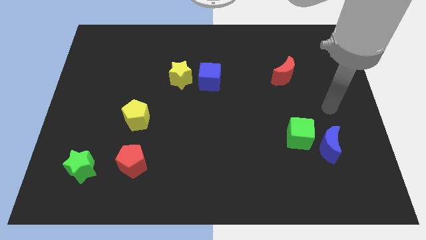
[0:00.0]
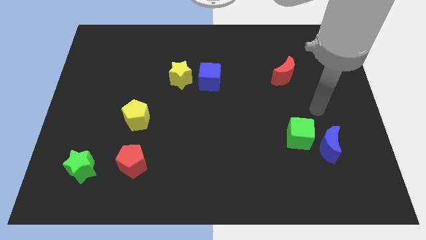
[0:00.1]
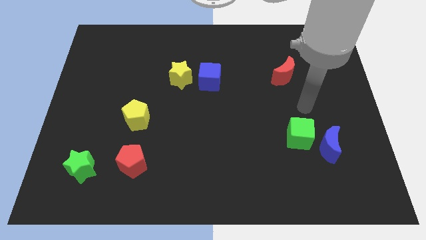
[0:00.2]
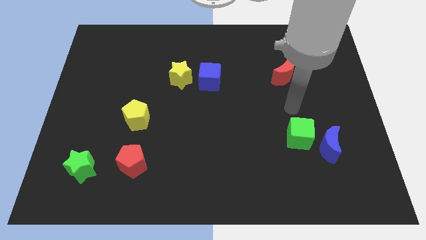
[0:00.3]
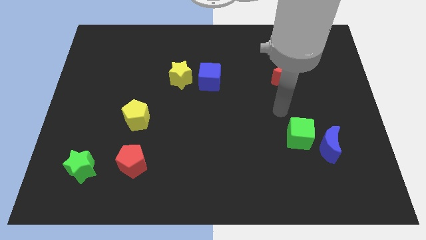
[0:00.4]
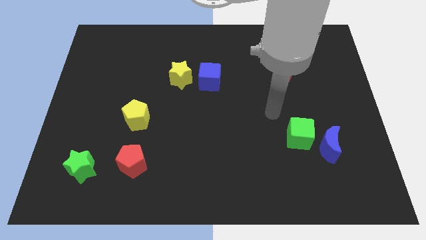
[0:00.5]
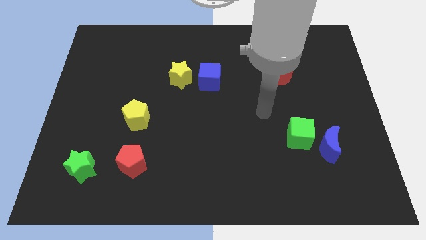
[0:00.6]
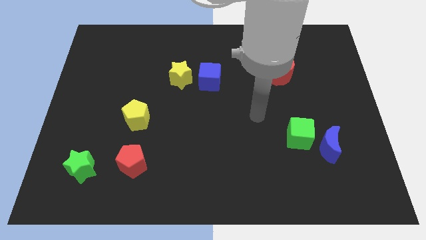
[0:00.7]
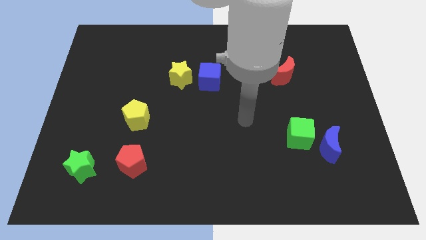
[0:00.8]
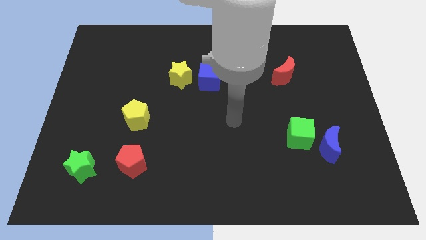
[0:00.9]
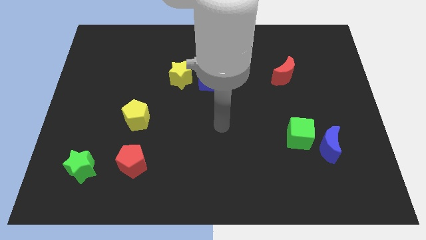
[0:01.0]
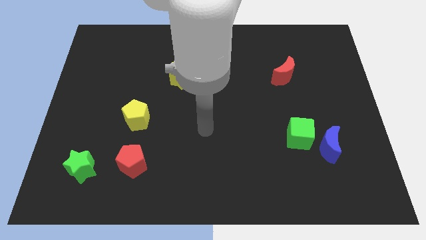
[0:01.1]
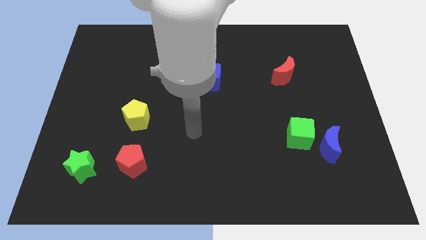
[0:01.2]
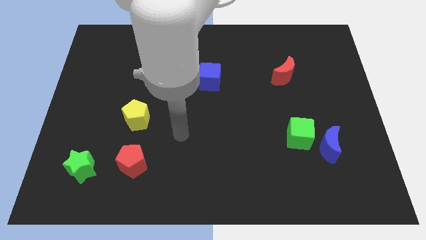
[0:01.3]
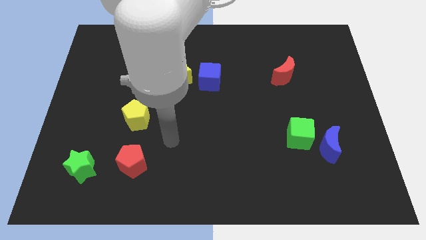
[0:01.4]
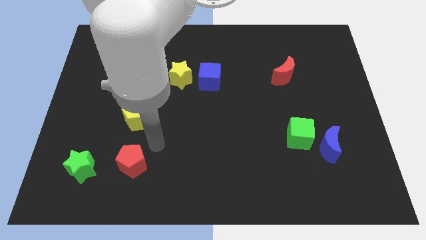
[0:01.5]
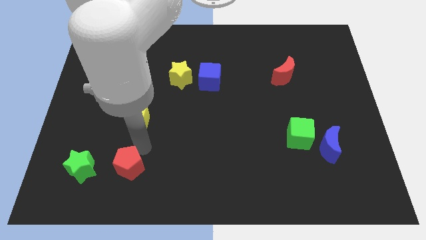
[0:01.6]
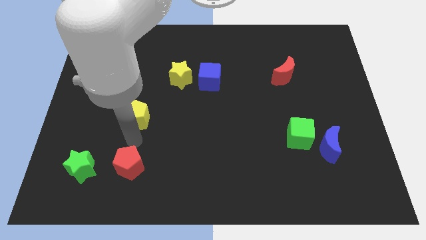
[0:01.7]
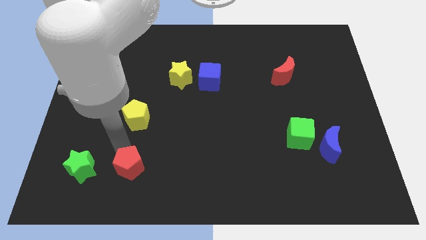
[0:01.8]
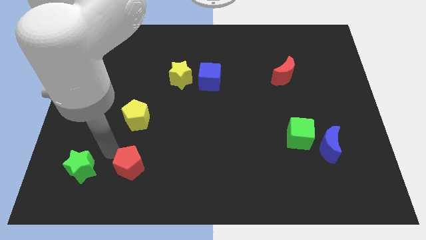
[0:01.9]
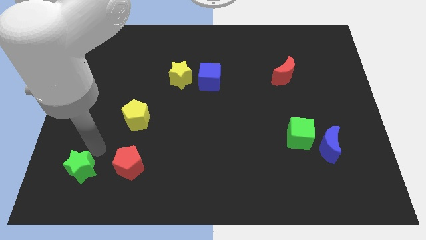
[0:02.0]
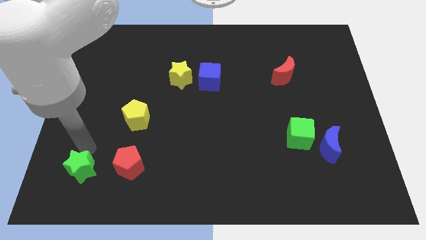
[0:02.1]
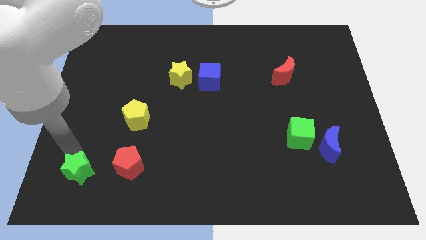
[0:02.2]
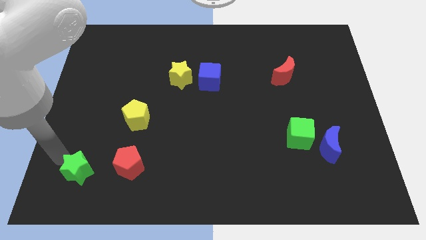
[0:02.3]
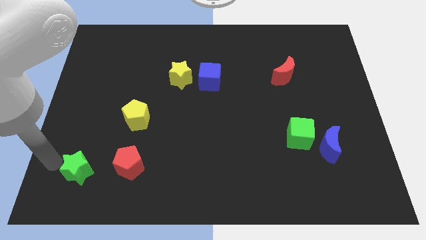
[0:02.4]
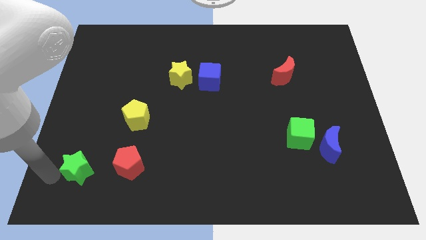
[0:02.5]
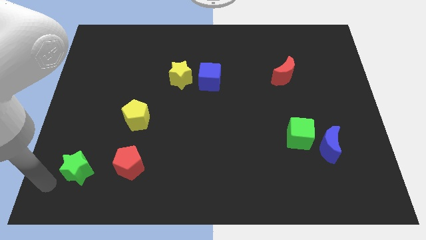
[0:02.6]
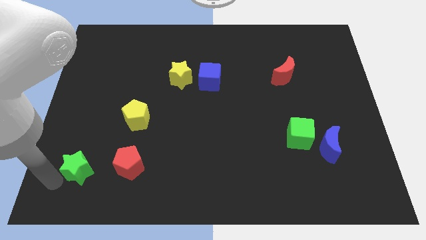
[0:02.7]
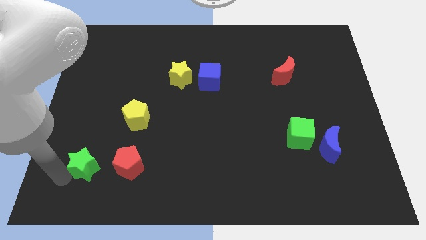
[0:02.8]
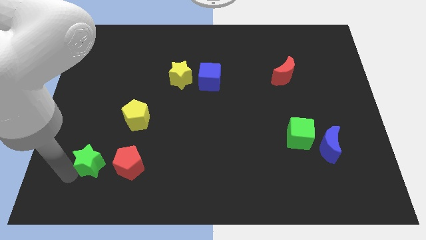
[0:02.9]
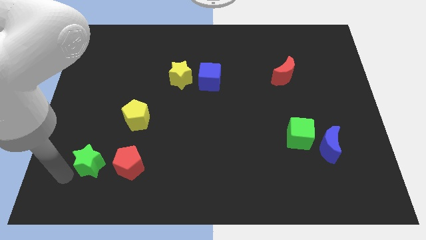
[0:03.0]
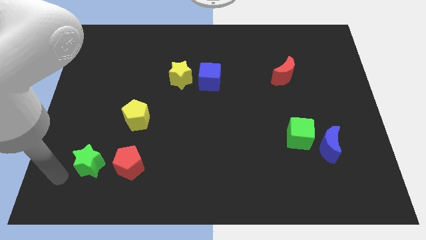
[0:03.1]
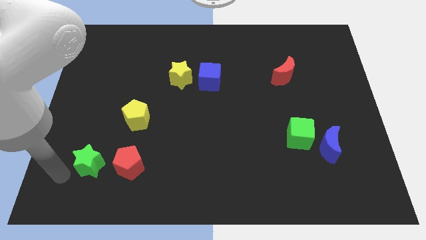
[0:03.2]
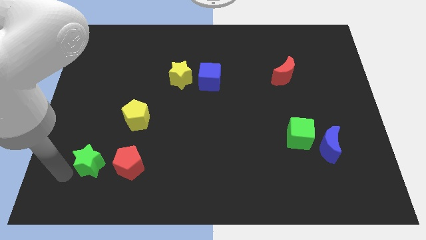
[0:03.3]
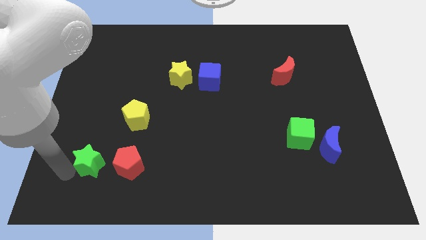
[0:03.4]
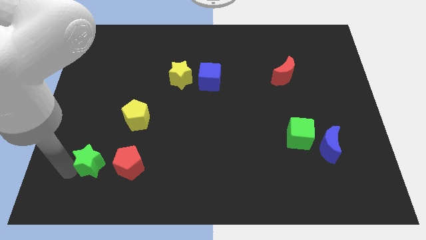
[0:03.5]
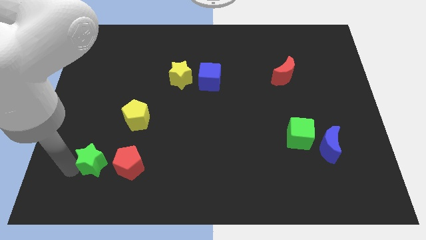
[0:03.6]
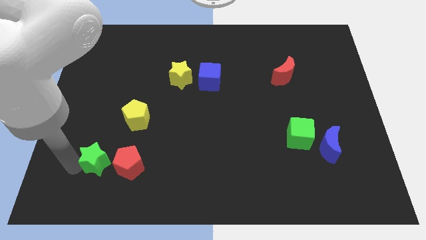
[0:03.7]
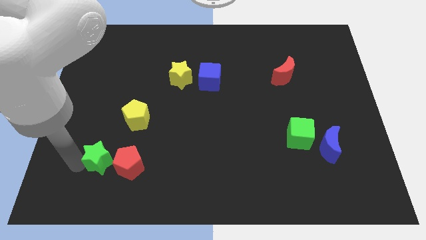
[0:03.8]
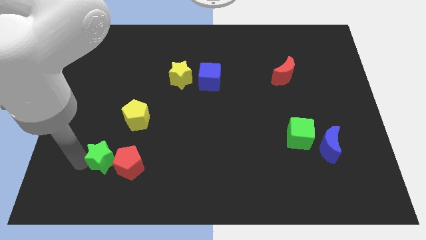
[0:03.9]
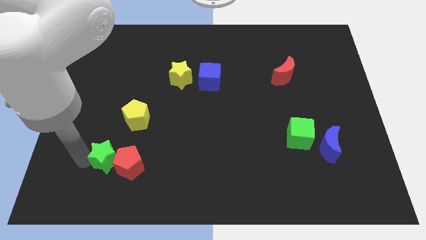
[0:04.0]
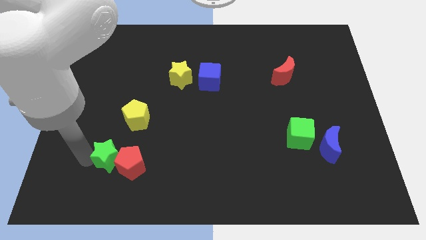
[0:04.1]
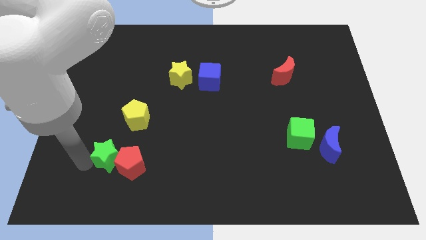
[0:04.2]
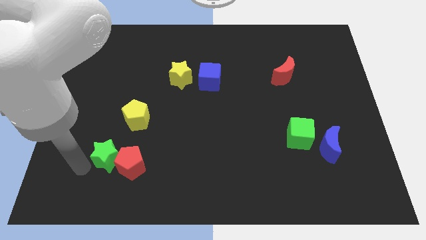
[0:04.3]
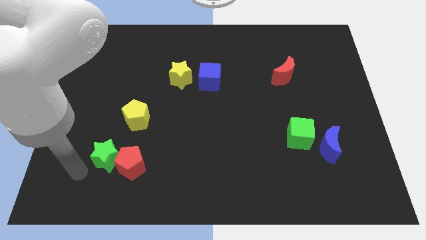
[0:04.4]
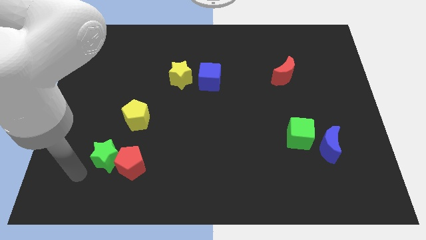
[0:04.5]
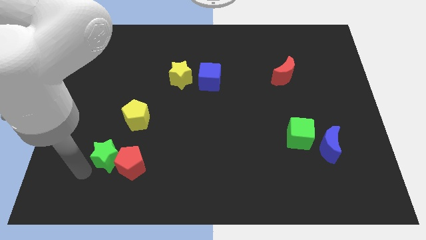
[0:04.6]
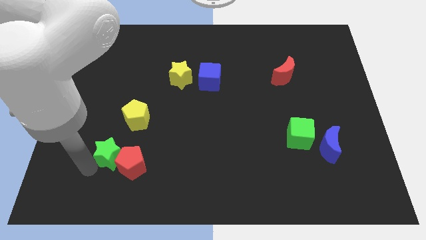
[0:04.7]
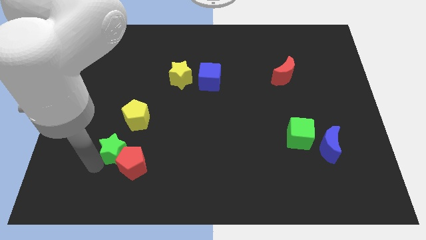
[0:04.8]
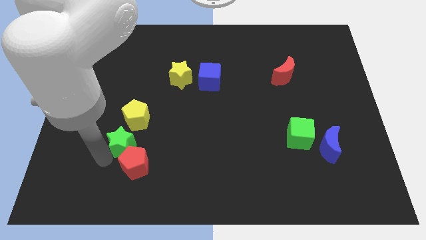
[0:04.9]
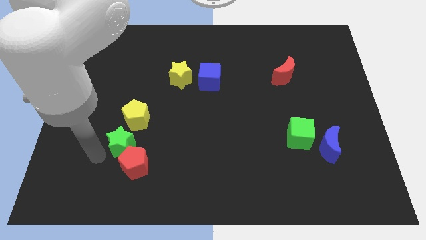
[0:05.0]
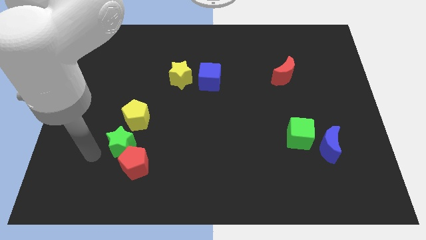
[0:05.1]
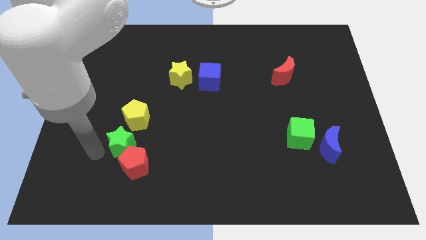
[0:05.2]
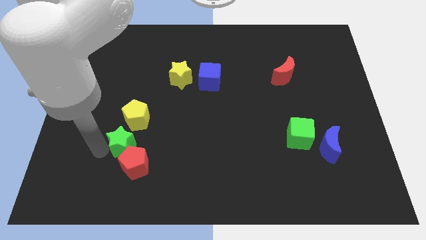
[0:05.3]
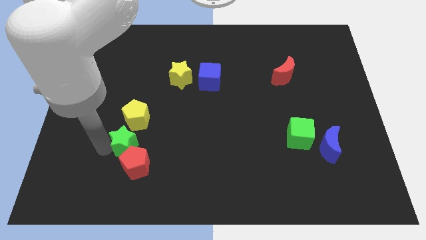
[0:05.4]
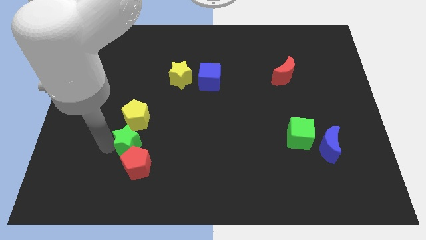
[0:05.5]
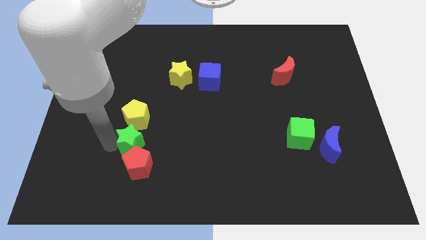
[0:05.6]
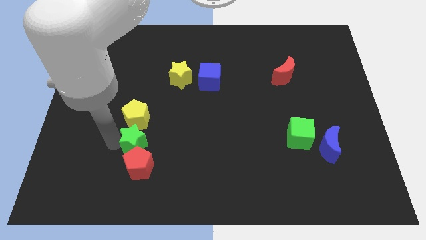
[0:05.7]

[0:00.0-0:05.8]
put the green star diagonally down and to the right of the yellow pentagon

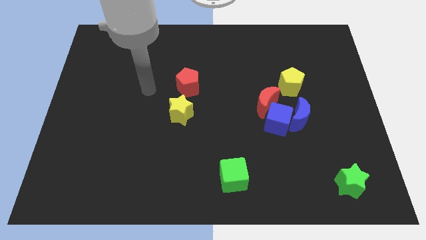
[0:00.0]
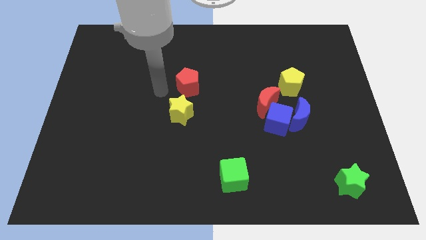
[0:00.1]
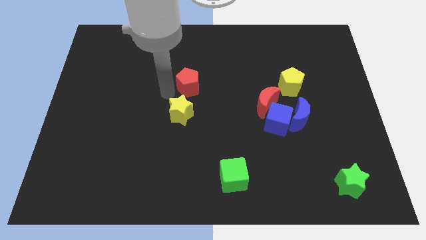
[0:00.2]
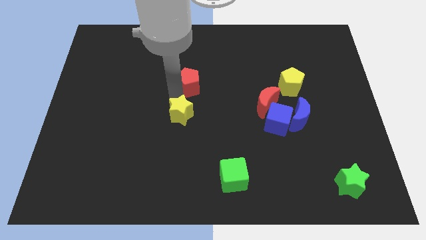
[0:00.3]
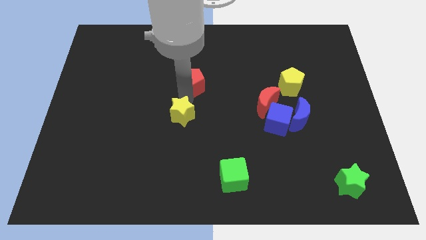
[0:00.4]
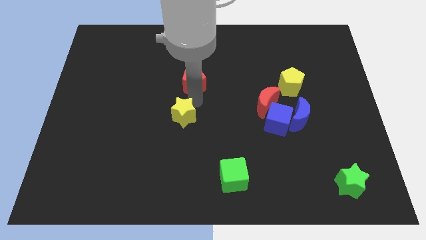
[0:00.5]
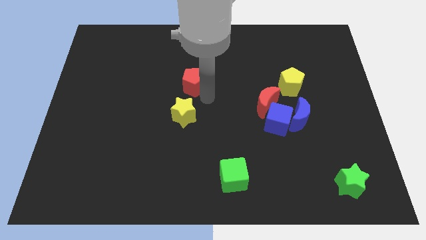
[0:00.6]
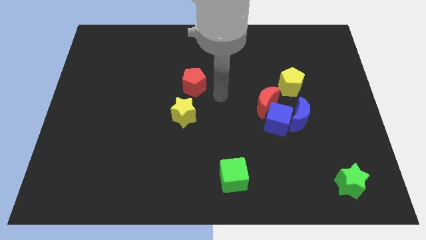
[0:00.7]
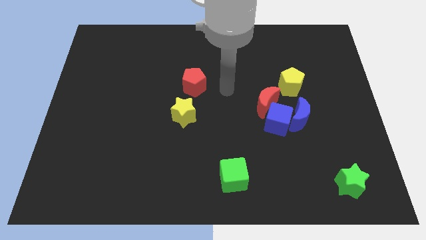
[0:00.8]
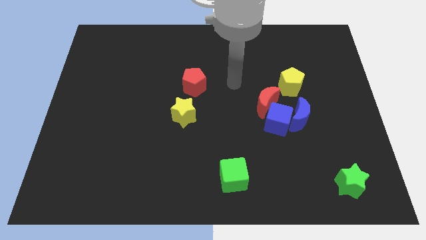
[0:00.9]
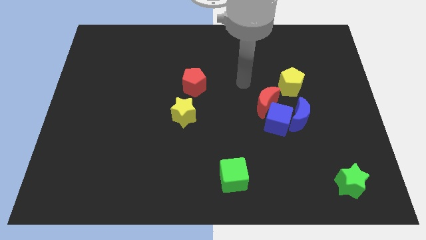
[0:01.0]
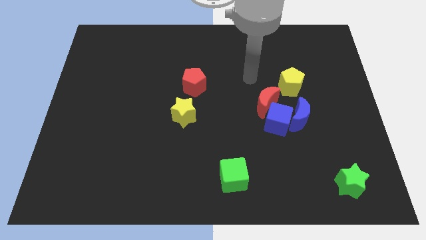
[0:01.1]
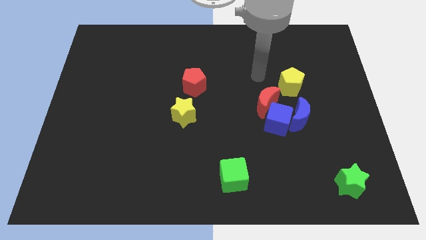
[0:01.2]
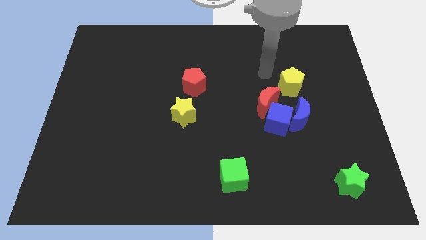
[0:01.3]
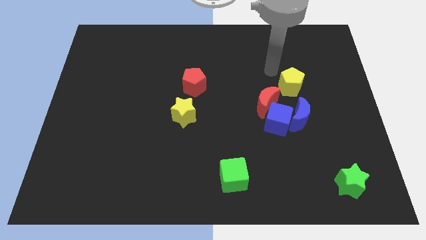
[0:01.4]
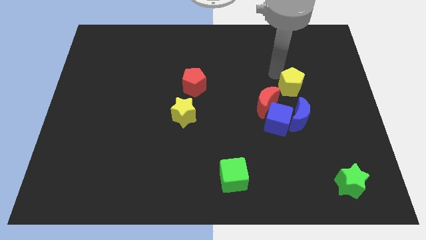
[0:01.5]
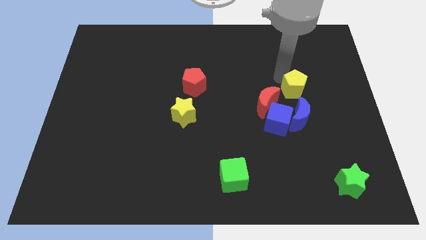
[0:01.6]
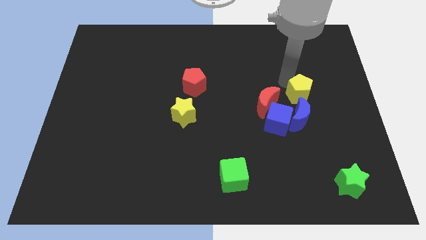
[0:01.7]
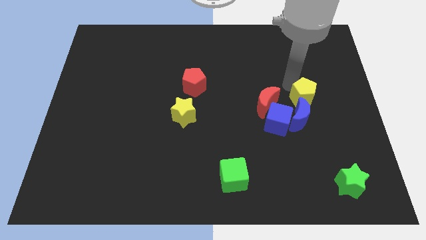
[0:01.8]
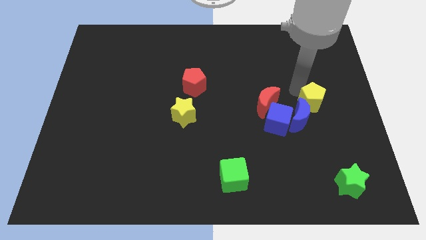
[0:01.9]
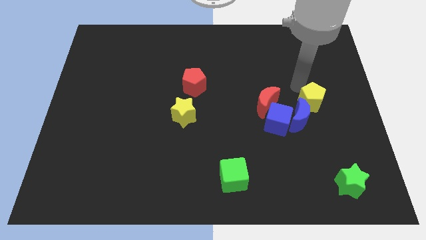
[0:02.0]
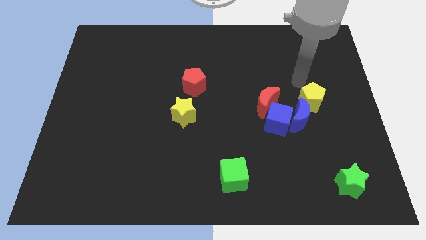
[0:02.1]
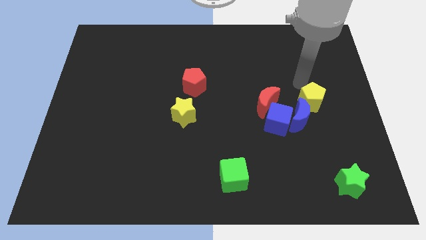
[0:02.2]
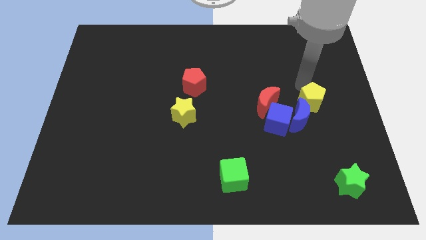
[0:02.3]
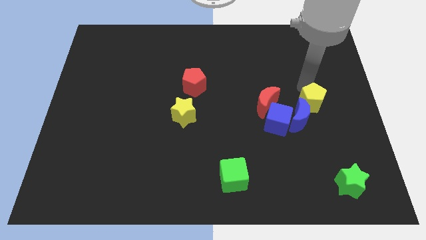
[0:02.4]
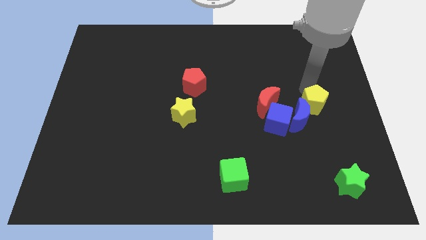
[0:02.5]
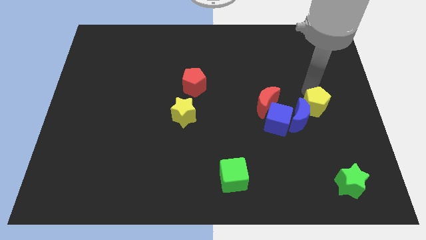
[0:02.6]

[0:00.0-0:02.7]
move the yellow pentagon just right of the blue cube
